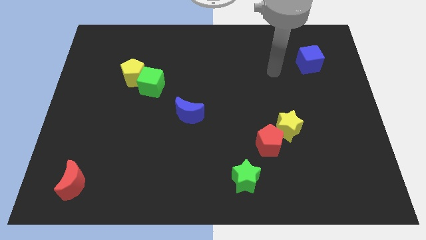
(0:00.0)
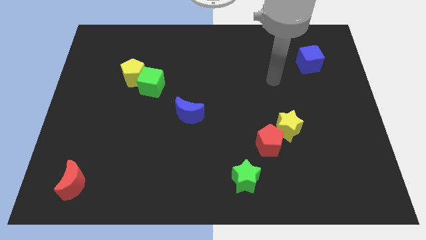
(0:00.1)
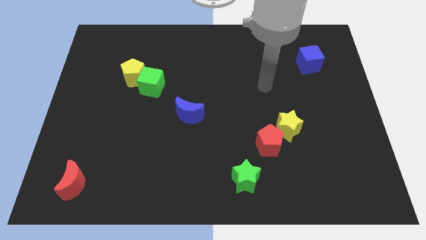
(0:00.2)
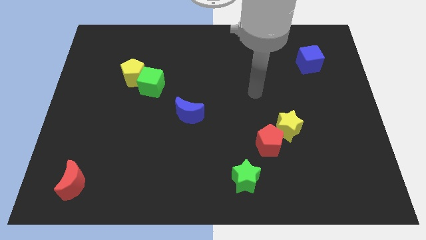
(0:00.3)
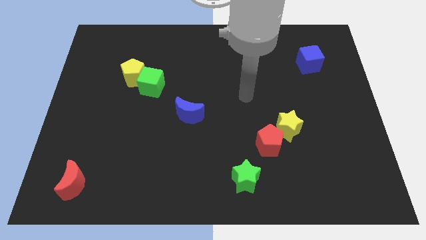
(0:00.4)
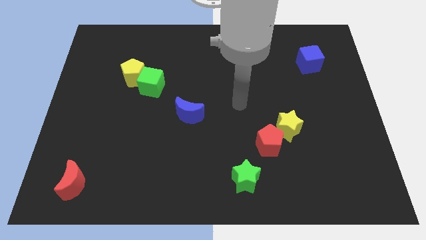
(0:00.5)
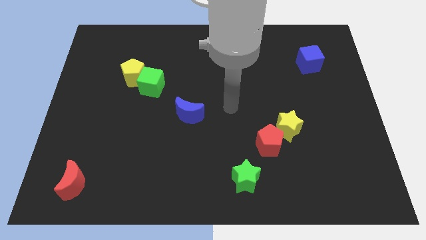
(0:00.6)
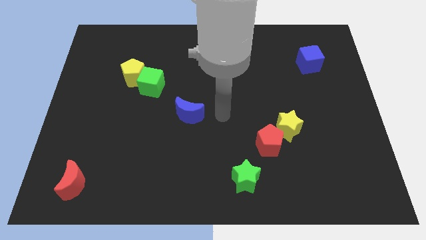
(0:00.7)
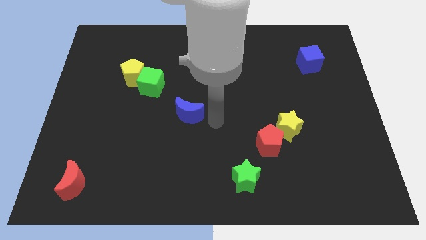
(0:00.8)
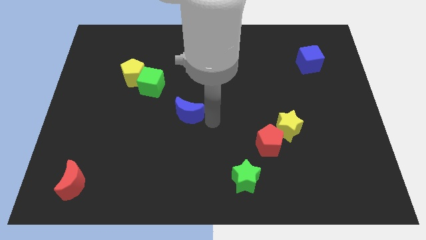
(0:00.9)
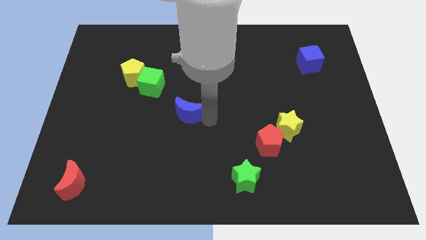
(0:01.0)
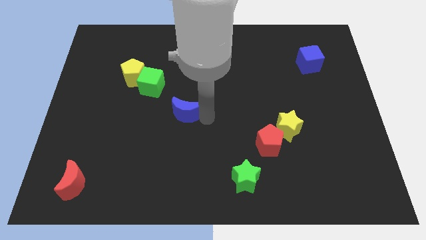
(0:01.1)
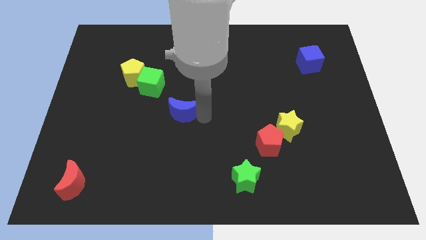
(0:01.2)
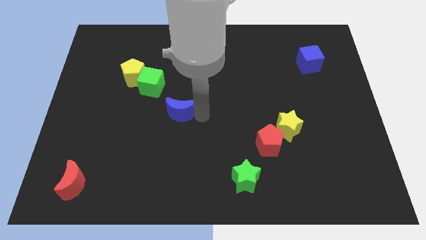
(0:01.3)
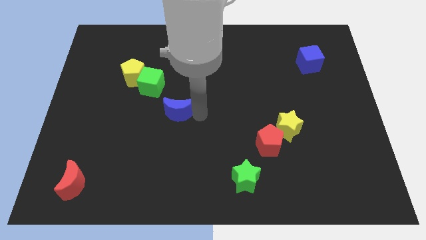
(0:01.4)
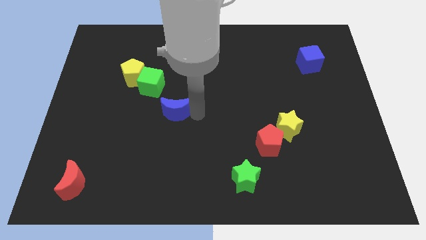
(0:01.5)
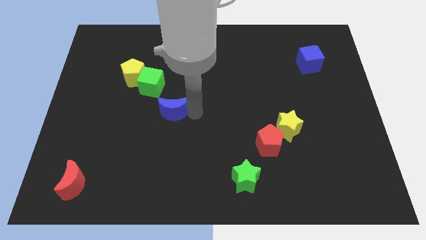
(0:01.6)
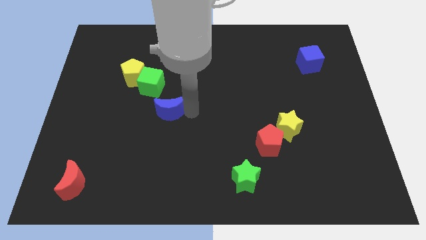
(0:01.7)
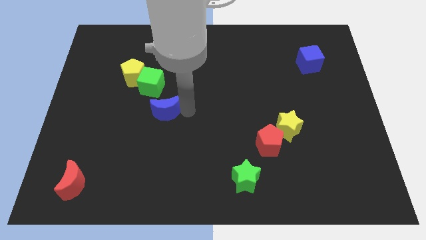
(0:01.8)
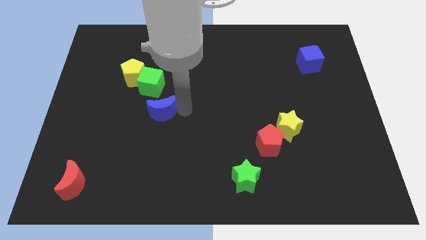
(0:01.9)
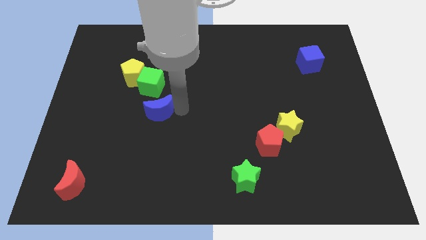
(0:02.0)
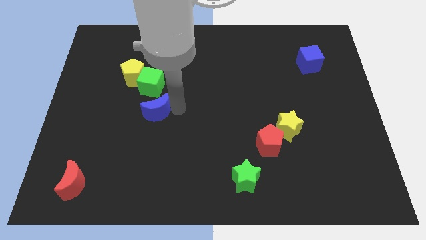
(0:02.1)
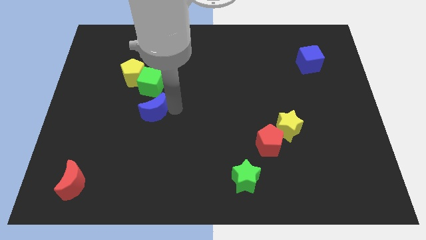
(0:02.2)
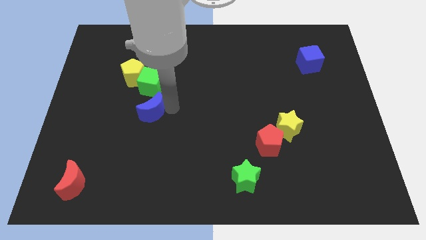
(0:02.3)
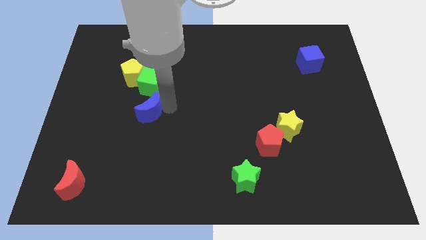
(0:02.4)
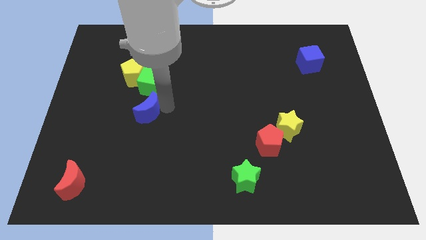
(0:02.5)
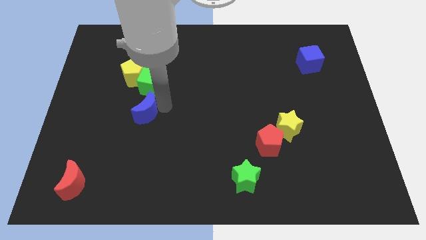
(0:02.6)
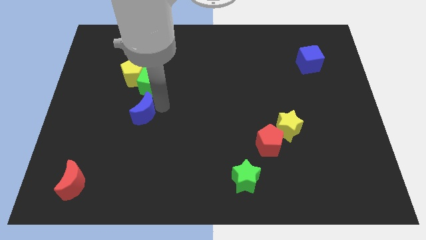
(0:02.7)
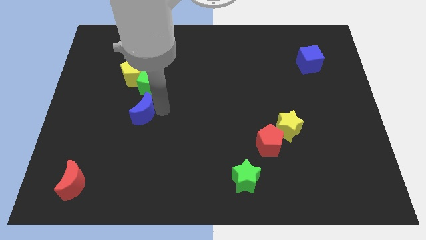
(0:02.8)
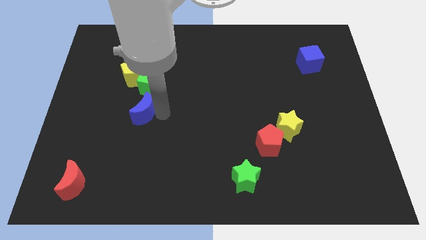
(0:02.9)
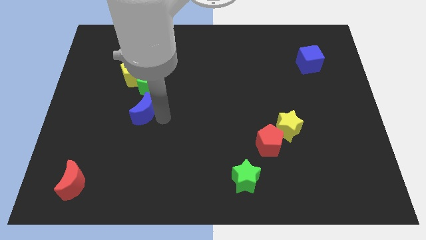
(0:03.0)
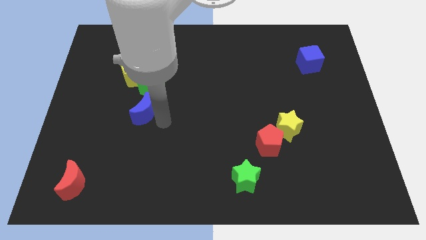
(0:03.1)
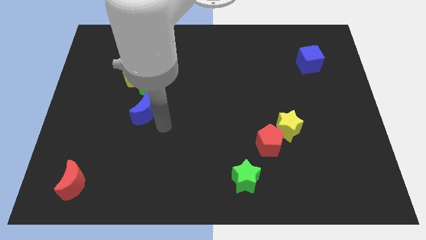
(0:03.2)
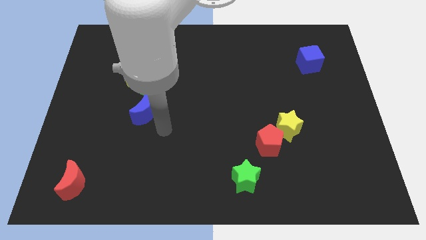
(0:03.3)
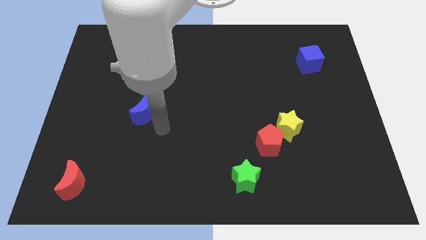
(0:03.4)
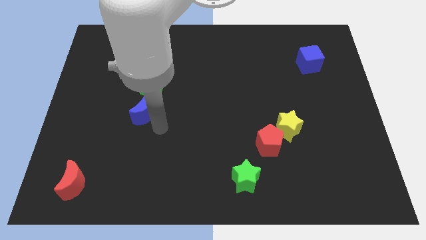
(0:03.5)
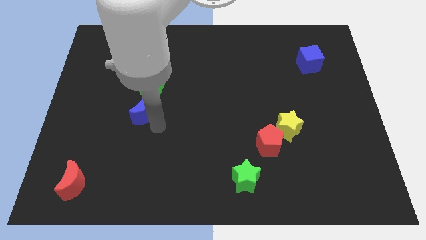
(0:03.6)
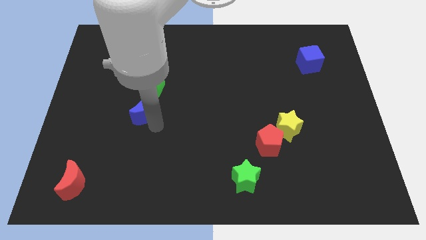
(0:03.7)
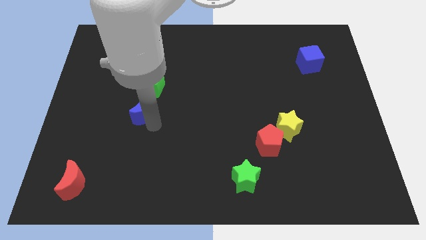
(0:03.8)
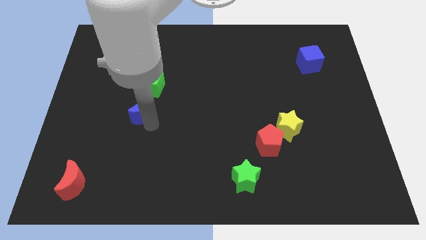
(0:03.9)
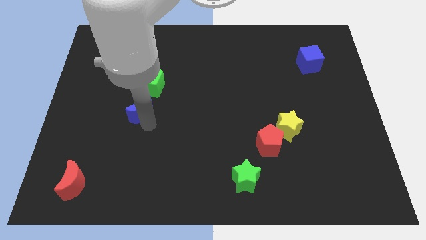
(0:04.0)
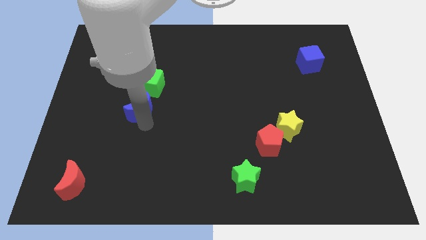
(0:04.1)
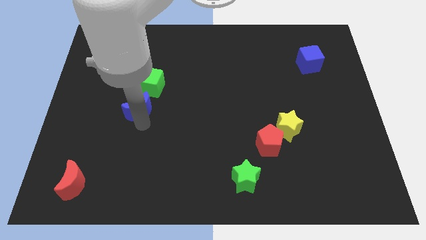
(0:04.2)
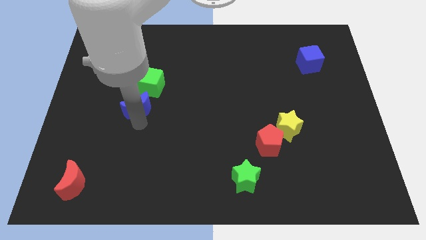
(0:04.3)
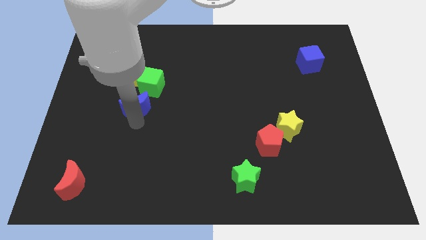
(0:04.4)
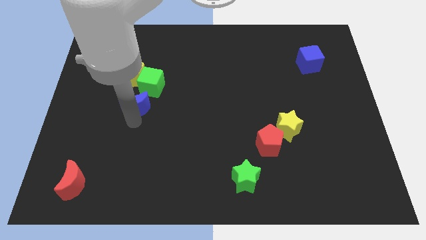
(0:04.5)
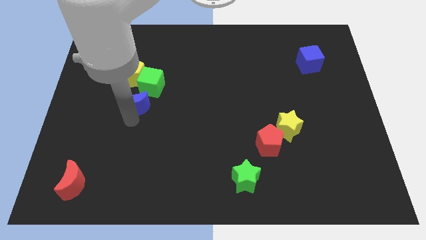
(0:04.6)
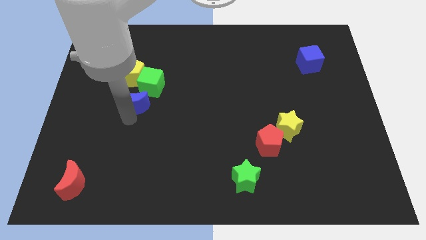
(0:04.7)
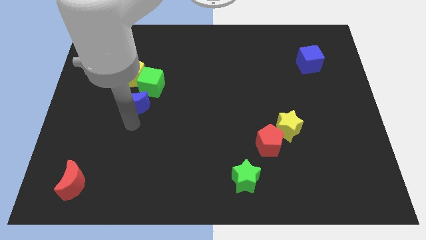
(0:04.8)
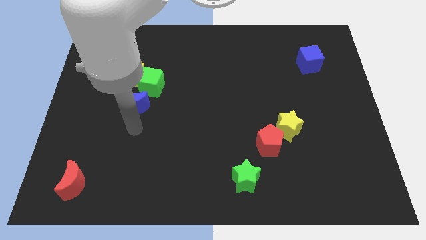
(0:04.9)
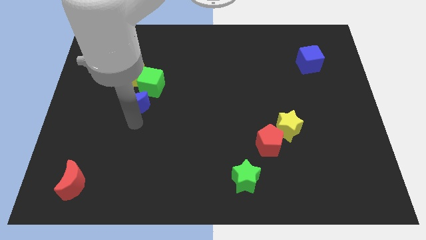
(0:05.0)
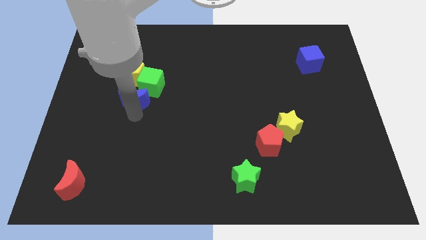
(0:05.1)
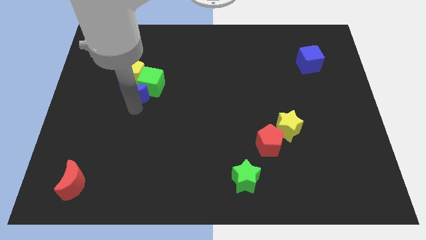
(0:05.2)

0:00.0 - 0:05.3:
move the blue moon to the yellow pentagon

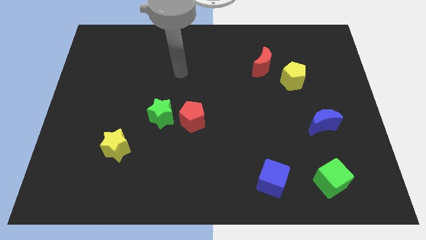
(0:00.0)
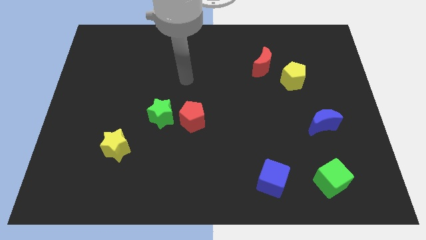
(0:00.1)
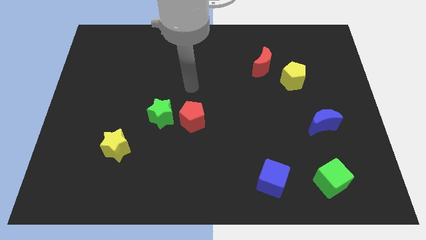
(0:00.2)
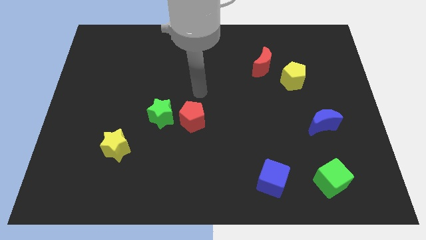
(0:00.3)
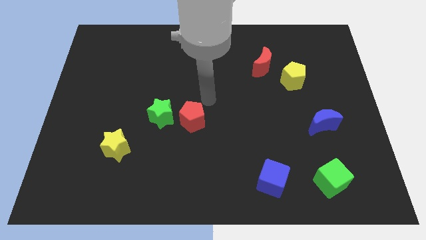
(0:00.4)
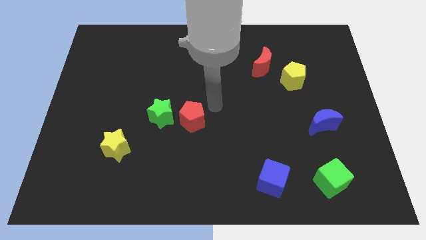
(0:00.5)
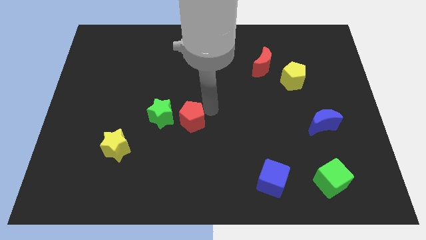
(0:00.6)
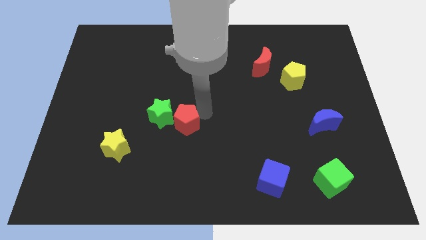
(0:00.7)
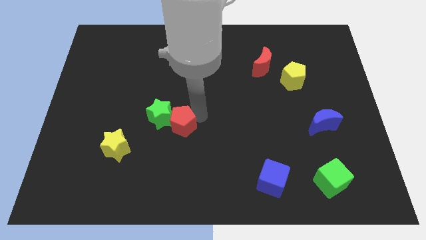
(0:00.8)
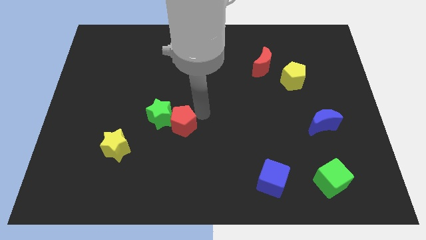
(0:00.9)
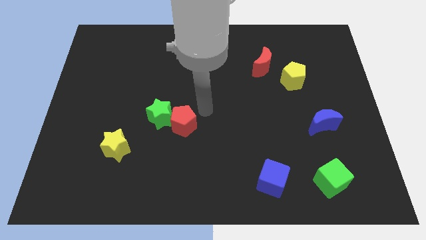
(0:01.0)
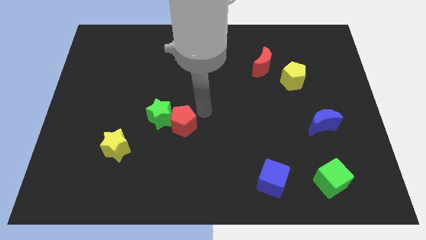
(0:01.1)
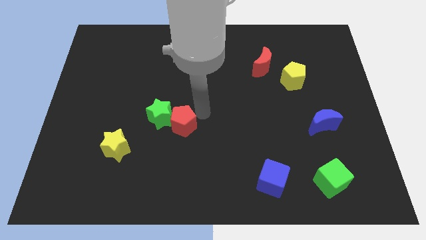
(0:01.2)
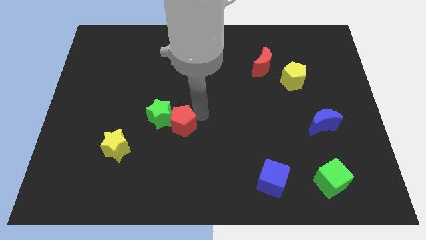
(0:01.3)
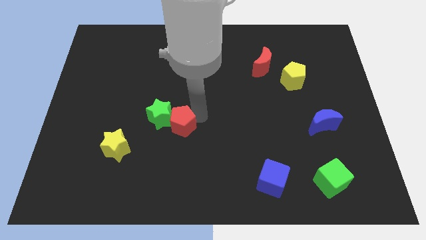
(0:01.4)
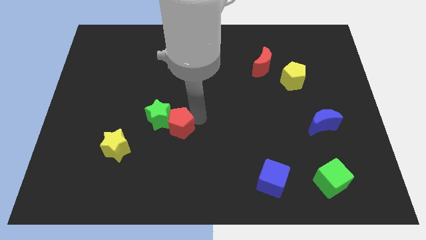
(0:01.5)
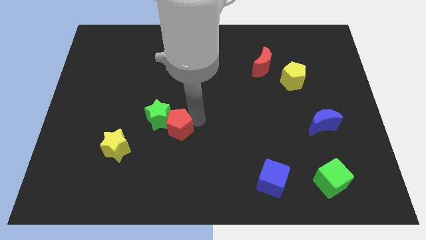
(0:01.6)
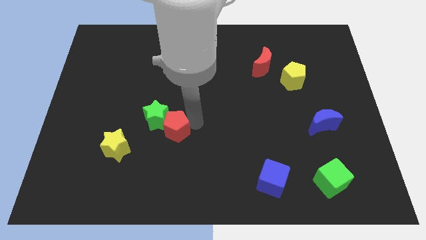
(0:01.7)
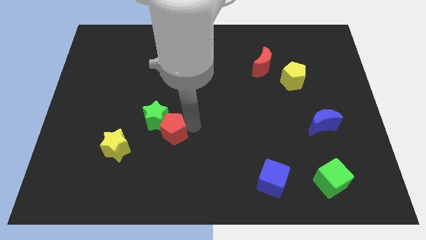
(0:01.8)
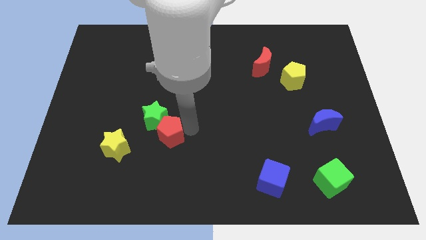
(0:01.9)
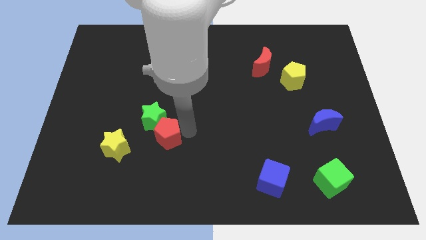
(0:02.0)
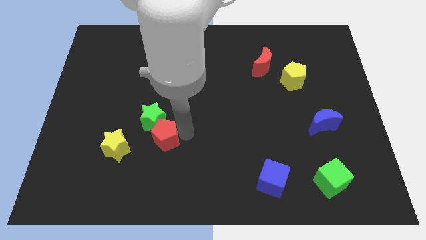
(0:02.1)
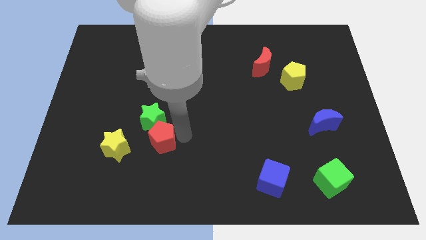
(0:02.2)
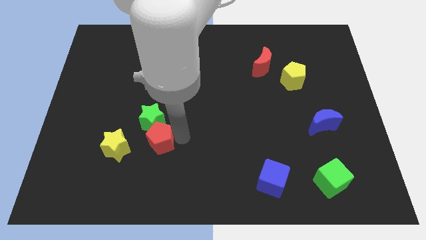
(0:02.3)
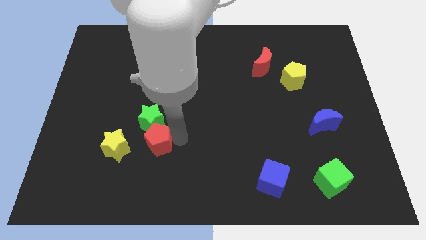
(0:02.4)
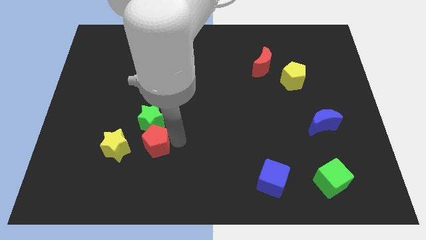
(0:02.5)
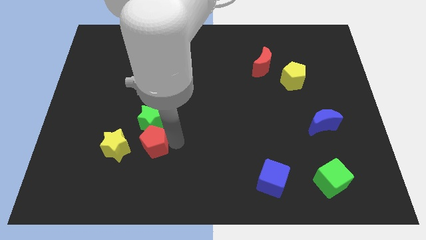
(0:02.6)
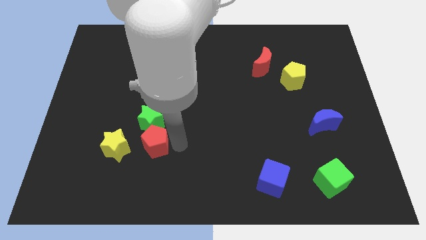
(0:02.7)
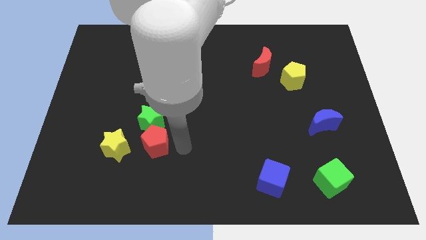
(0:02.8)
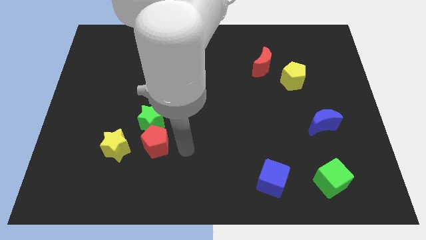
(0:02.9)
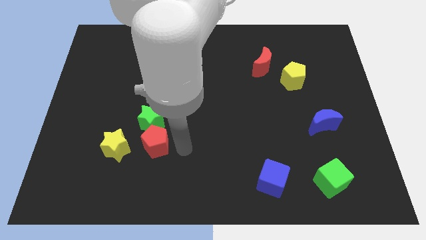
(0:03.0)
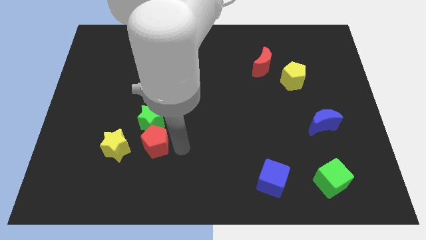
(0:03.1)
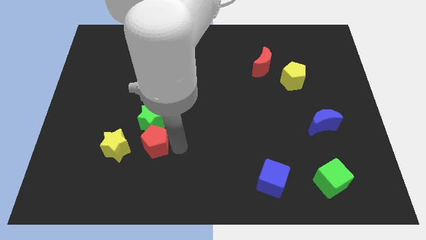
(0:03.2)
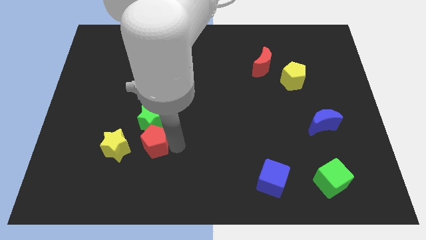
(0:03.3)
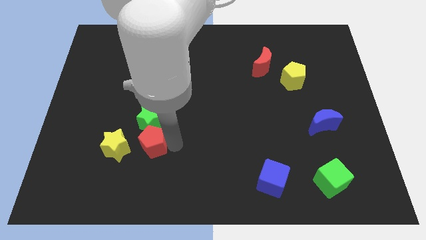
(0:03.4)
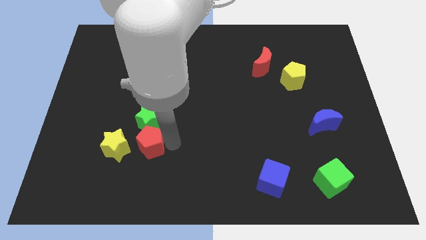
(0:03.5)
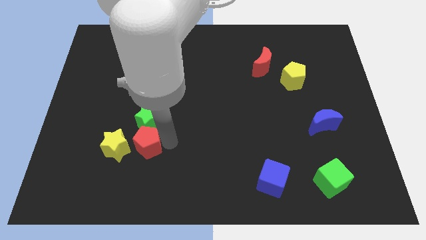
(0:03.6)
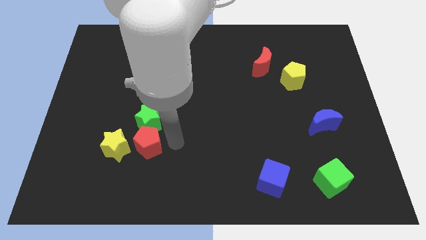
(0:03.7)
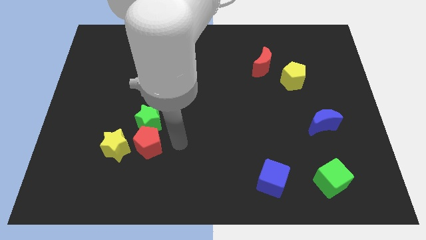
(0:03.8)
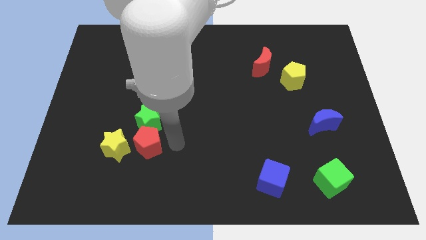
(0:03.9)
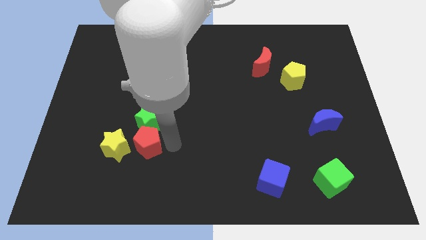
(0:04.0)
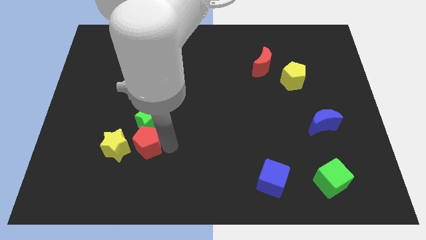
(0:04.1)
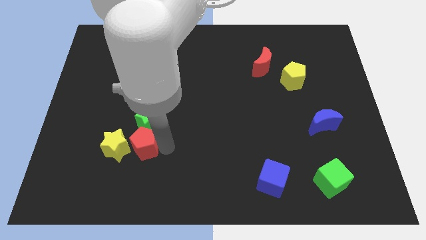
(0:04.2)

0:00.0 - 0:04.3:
push the red pentagon close to the yellow star
